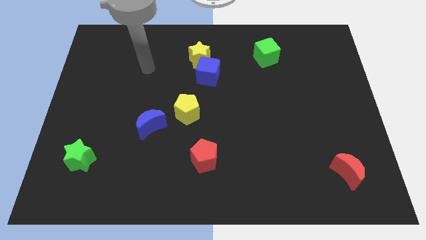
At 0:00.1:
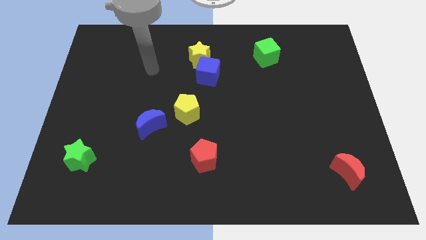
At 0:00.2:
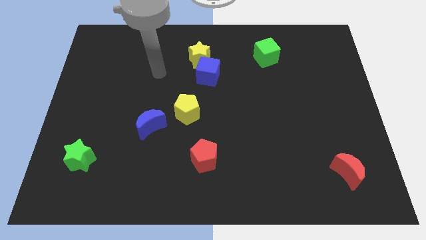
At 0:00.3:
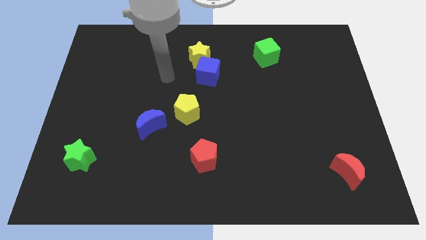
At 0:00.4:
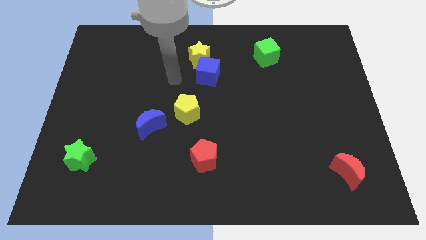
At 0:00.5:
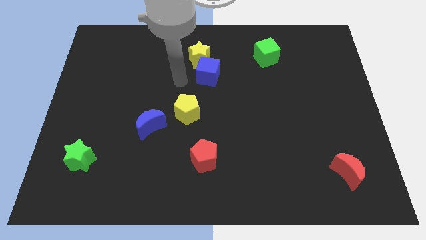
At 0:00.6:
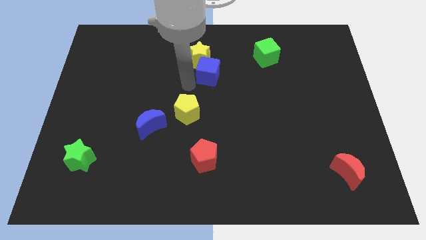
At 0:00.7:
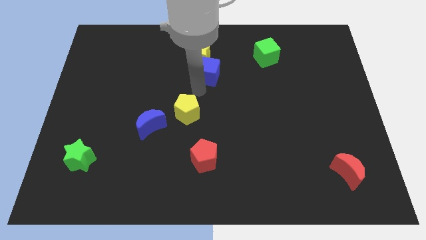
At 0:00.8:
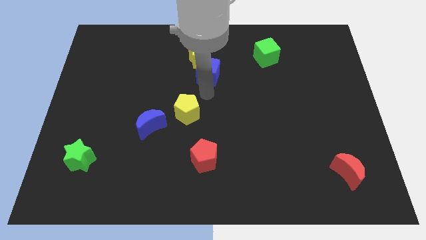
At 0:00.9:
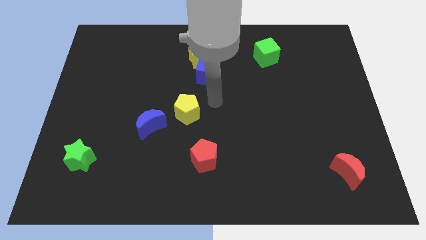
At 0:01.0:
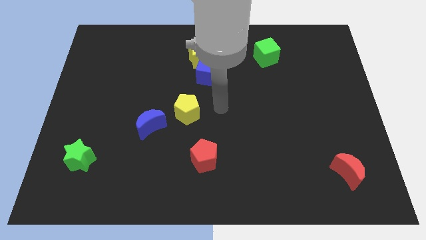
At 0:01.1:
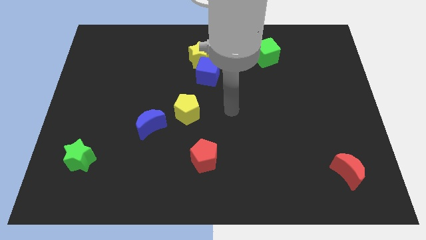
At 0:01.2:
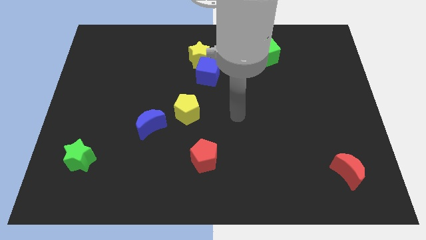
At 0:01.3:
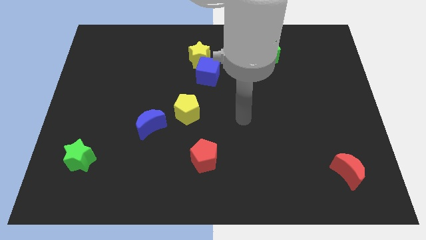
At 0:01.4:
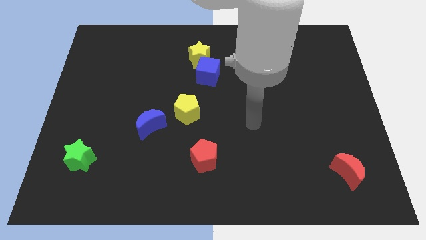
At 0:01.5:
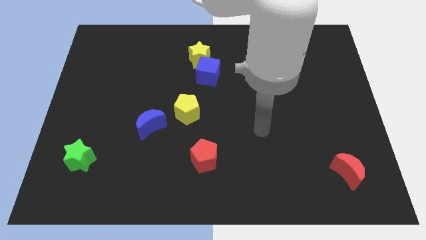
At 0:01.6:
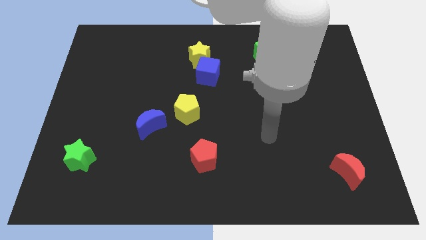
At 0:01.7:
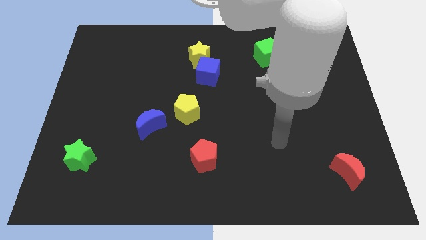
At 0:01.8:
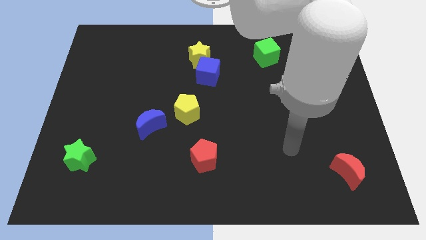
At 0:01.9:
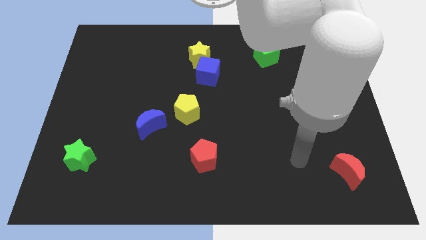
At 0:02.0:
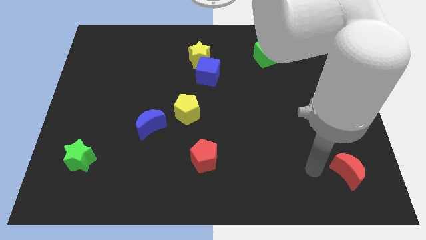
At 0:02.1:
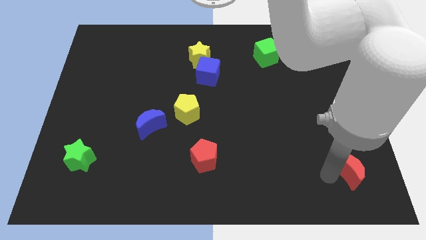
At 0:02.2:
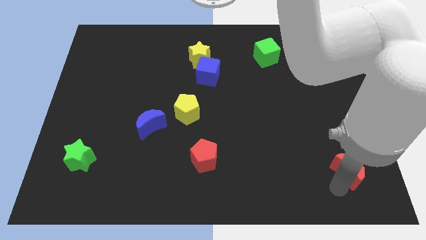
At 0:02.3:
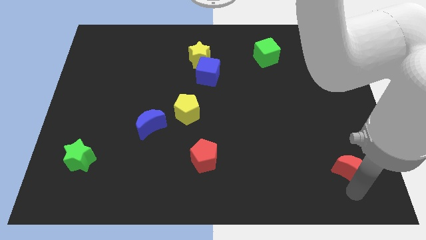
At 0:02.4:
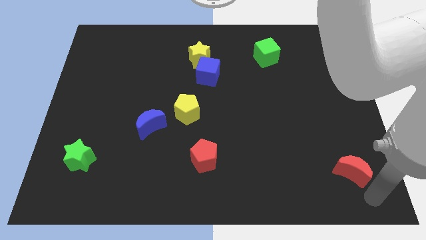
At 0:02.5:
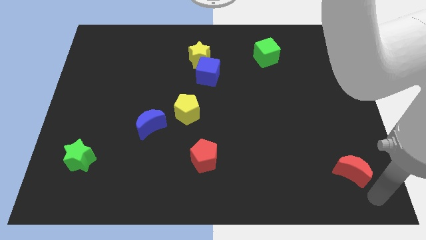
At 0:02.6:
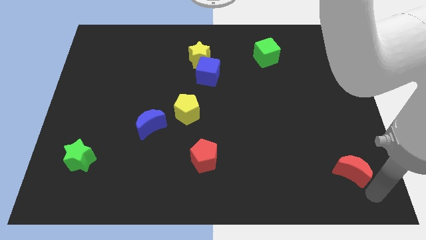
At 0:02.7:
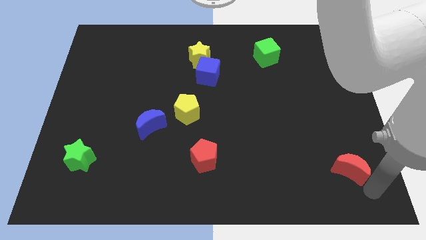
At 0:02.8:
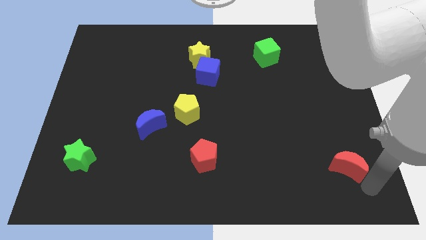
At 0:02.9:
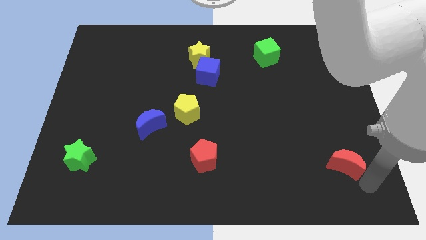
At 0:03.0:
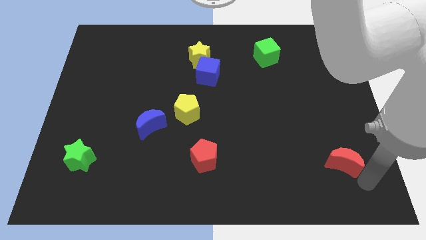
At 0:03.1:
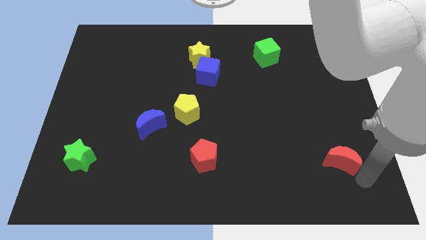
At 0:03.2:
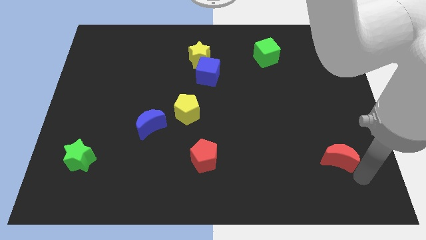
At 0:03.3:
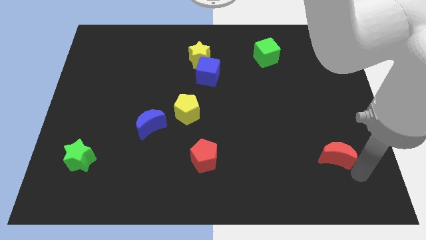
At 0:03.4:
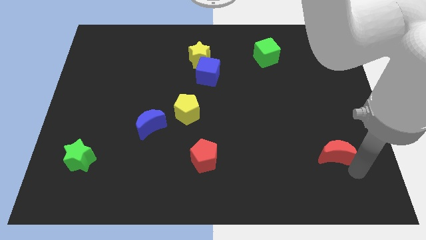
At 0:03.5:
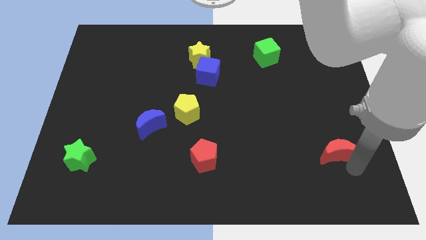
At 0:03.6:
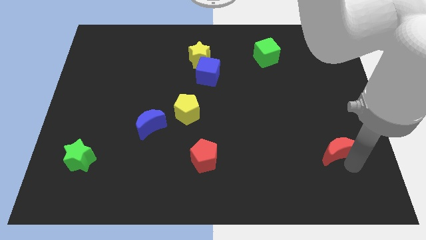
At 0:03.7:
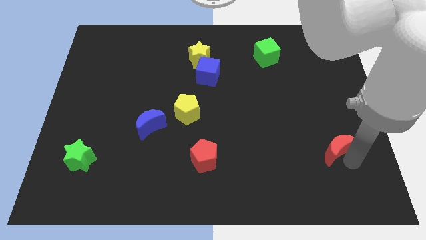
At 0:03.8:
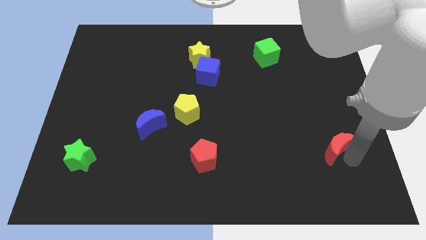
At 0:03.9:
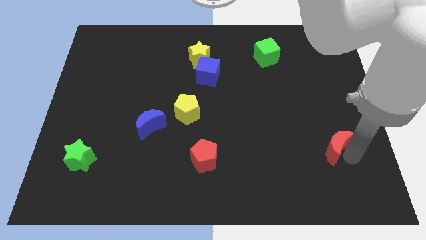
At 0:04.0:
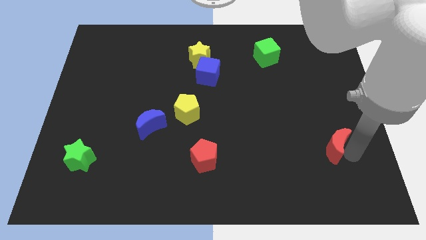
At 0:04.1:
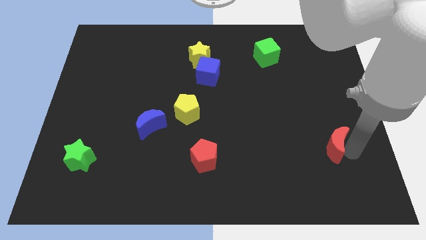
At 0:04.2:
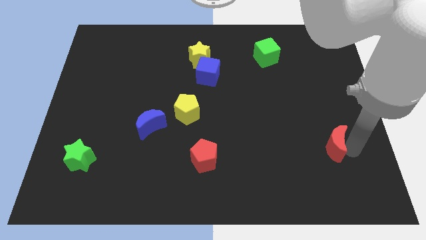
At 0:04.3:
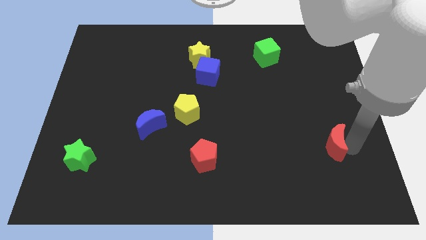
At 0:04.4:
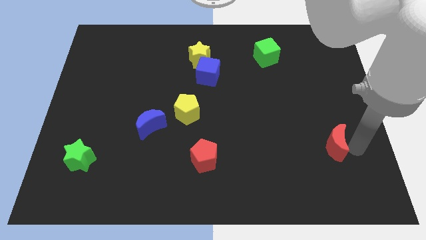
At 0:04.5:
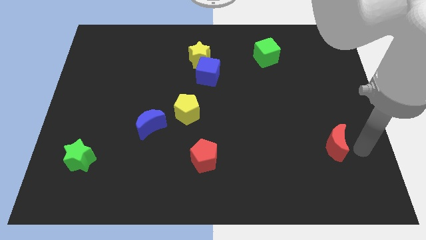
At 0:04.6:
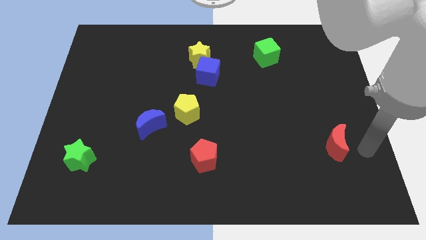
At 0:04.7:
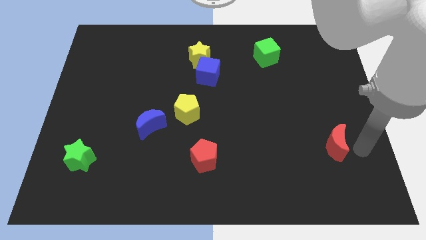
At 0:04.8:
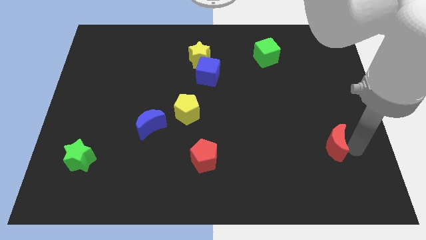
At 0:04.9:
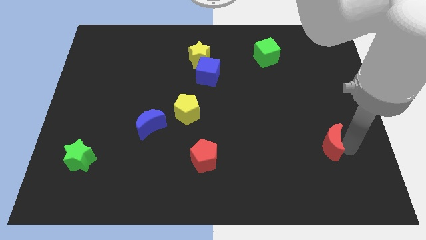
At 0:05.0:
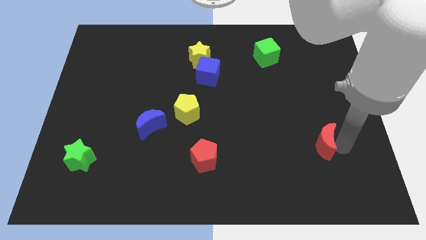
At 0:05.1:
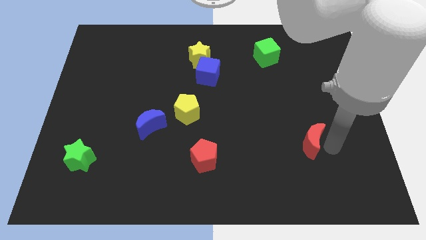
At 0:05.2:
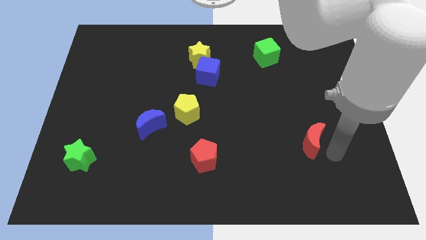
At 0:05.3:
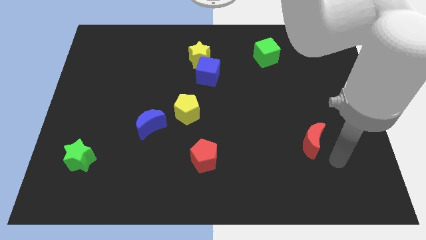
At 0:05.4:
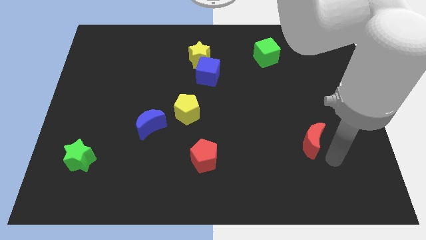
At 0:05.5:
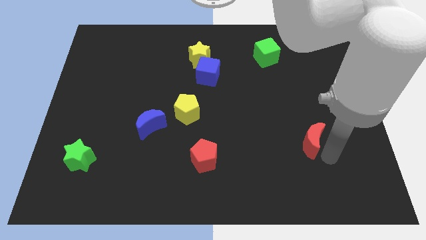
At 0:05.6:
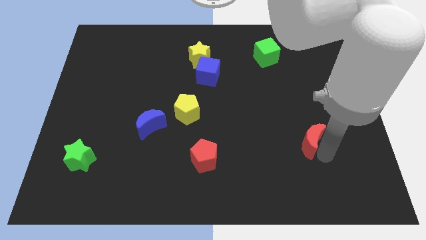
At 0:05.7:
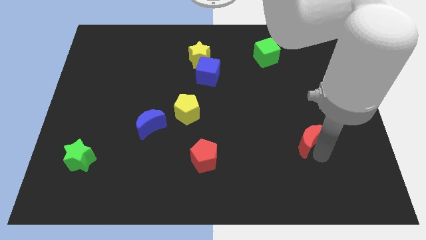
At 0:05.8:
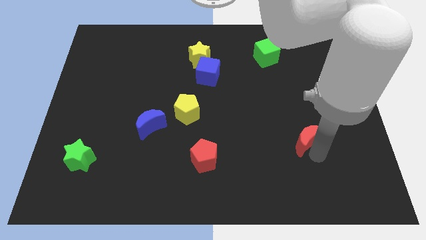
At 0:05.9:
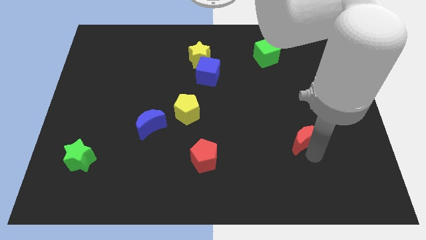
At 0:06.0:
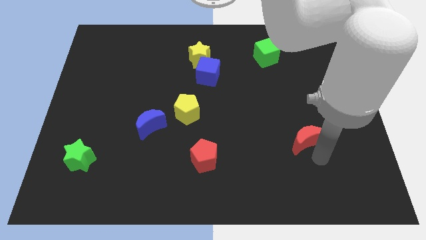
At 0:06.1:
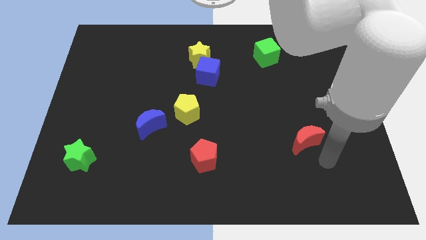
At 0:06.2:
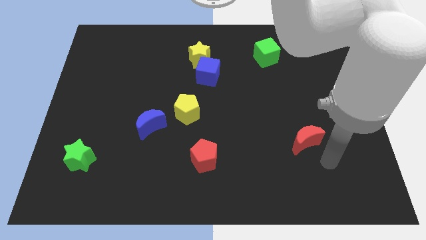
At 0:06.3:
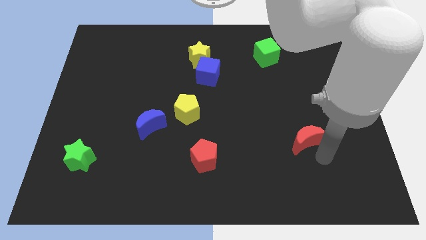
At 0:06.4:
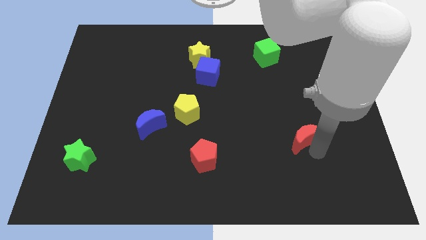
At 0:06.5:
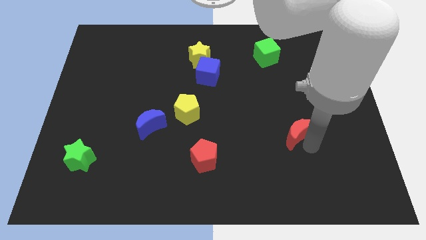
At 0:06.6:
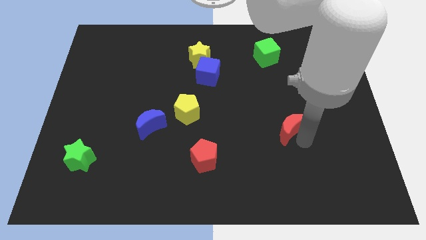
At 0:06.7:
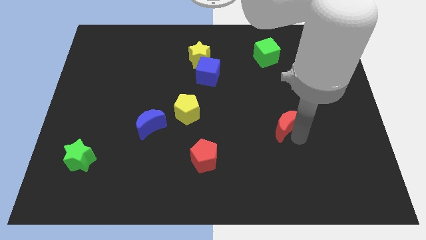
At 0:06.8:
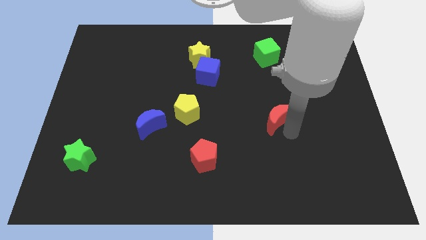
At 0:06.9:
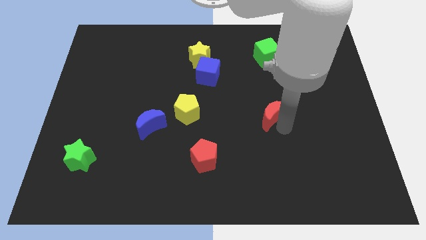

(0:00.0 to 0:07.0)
push the red moon diagonally up and left

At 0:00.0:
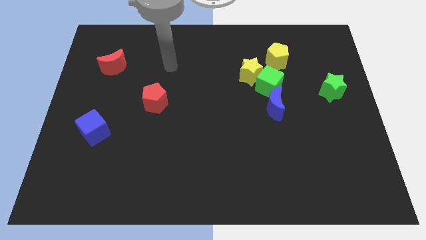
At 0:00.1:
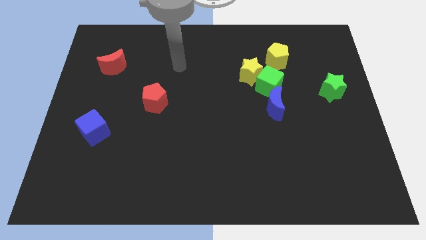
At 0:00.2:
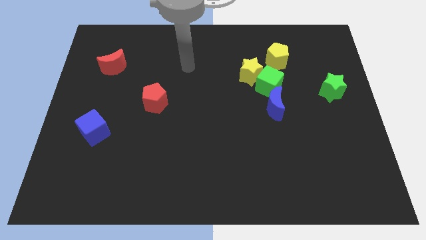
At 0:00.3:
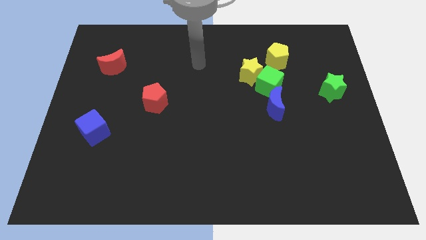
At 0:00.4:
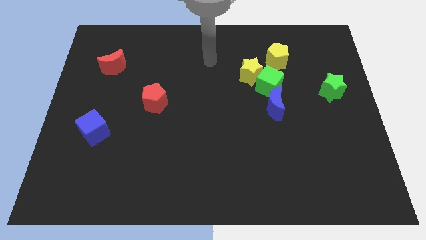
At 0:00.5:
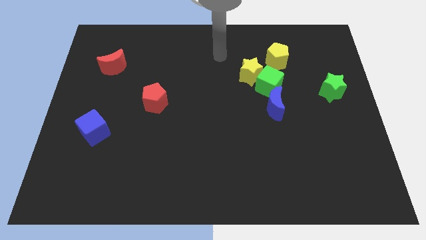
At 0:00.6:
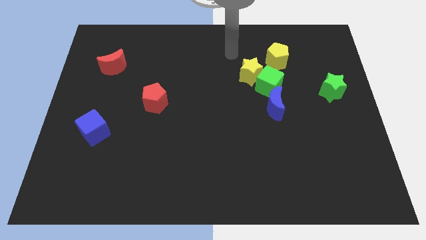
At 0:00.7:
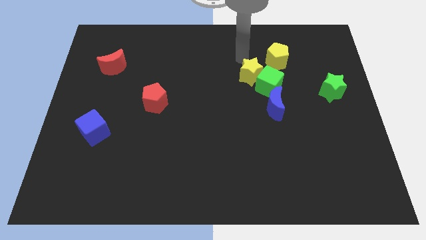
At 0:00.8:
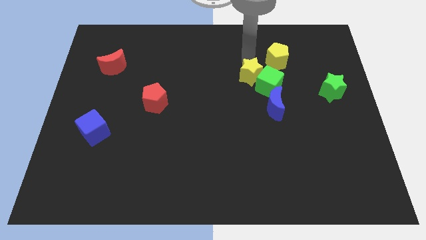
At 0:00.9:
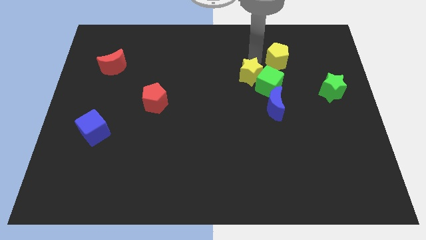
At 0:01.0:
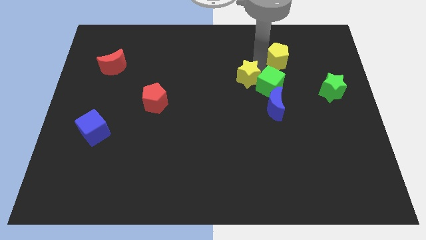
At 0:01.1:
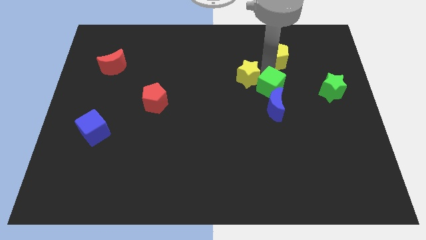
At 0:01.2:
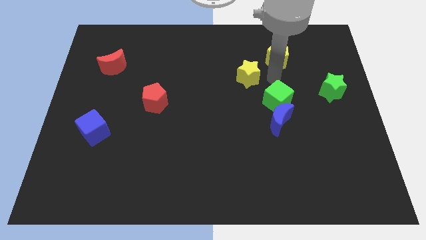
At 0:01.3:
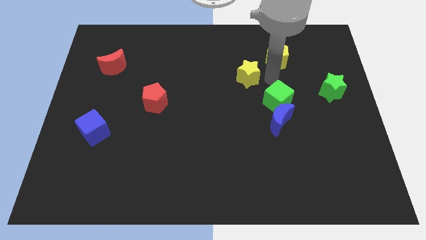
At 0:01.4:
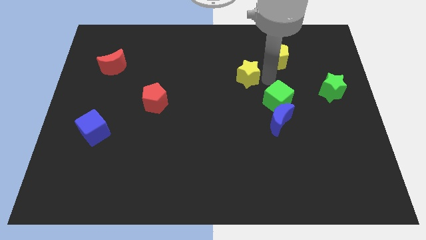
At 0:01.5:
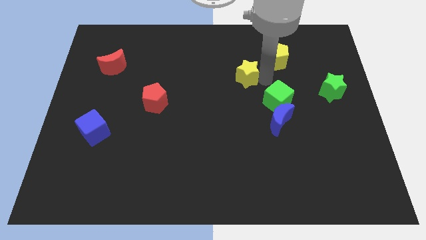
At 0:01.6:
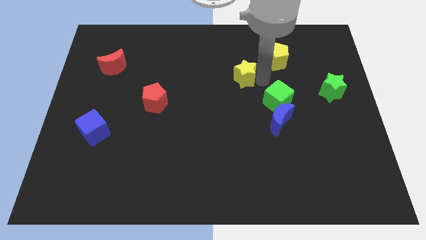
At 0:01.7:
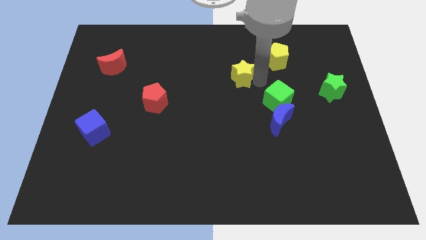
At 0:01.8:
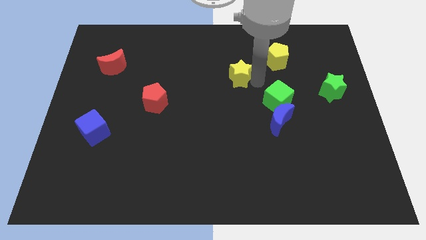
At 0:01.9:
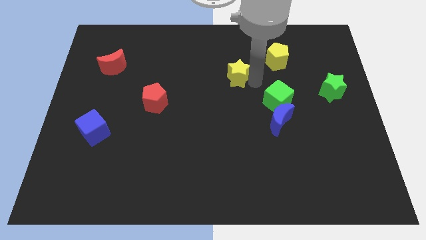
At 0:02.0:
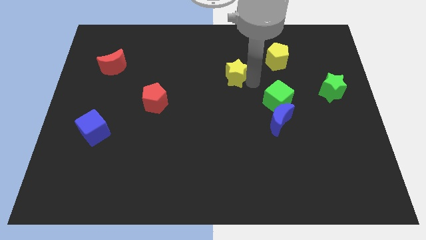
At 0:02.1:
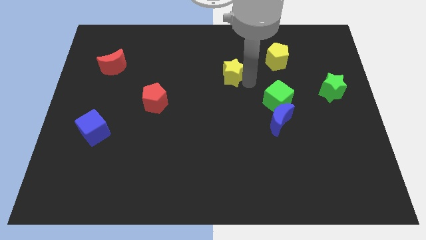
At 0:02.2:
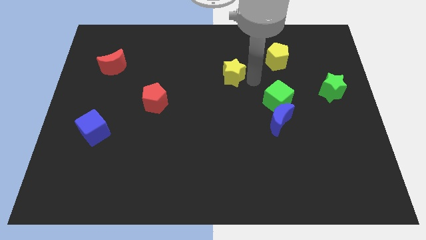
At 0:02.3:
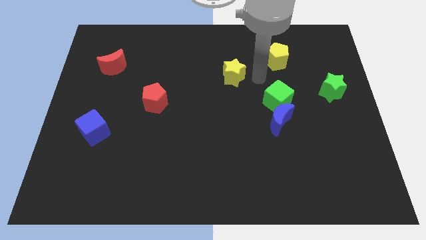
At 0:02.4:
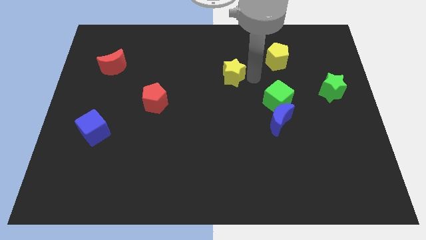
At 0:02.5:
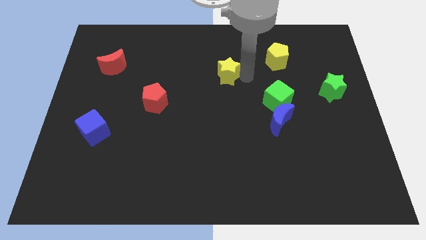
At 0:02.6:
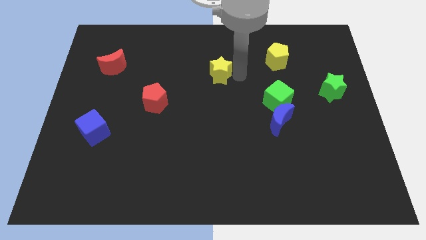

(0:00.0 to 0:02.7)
slide the yellow star a little bit left
